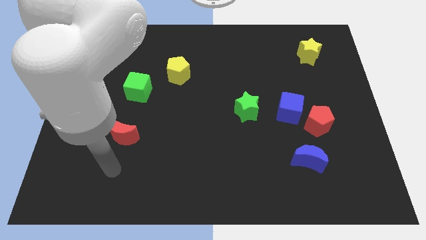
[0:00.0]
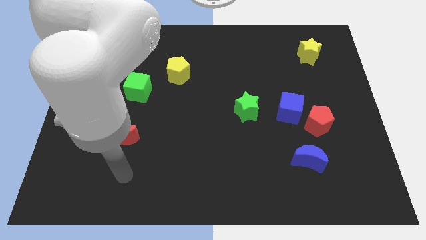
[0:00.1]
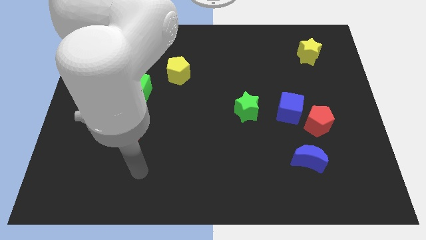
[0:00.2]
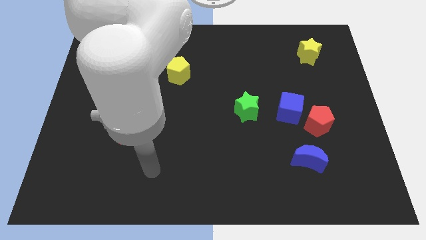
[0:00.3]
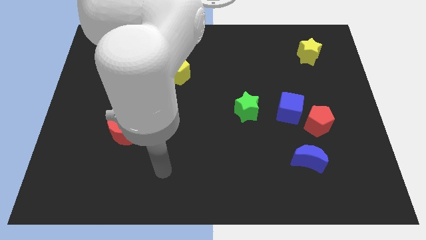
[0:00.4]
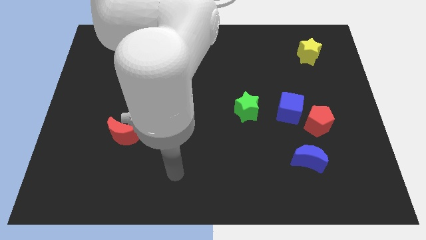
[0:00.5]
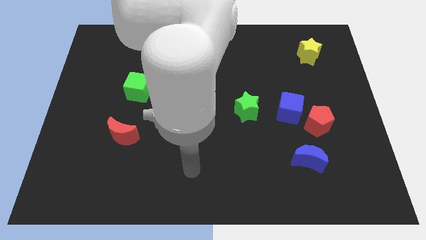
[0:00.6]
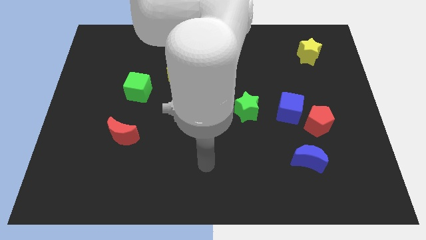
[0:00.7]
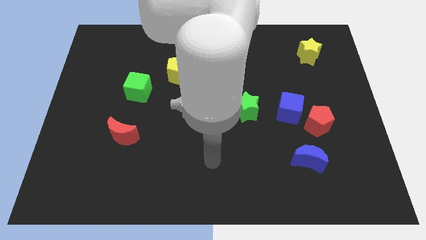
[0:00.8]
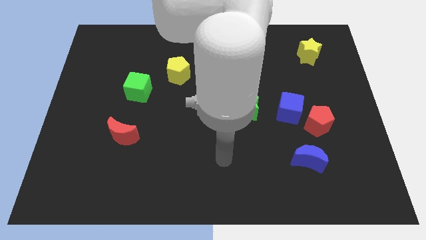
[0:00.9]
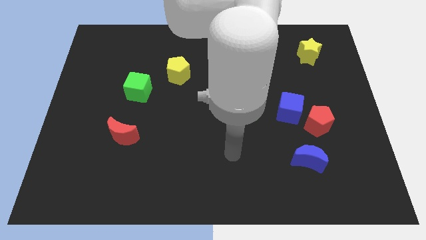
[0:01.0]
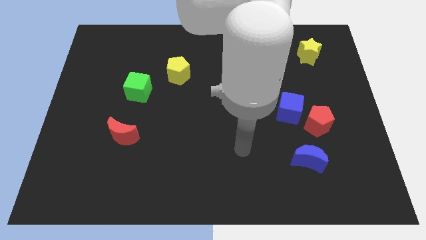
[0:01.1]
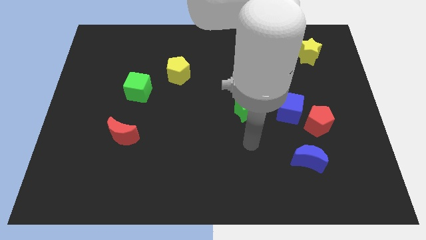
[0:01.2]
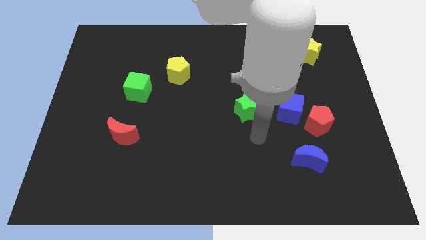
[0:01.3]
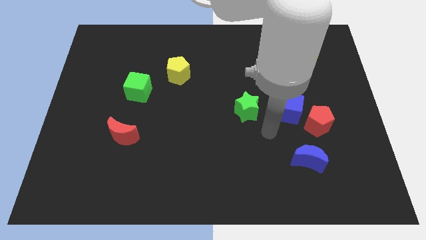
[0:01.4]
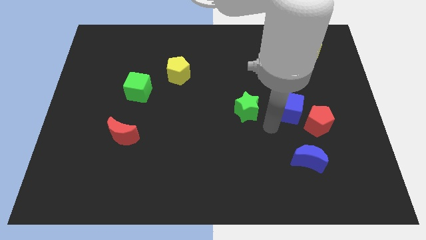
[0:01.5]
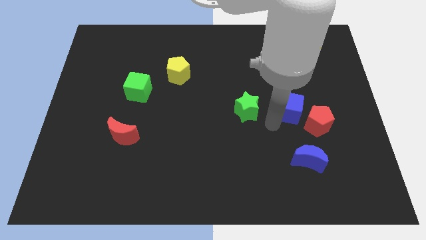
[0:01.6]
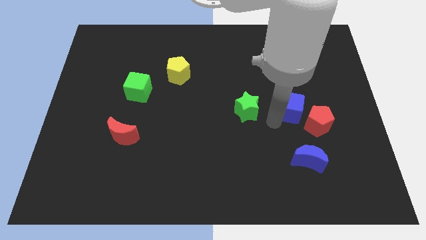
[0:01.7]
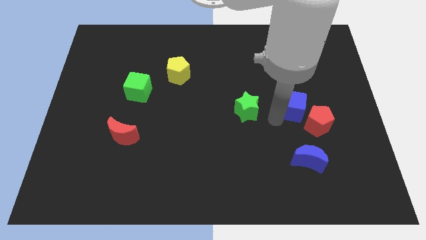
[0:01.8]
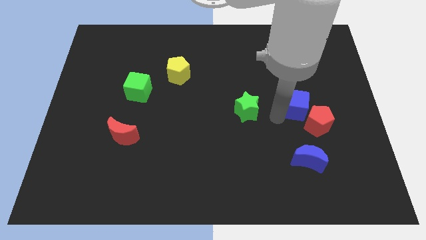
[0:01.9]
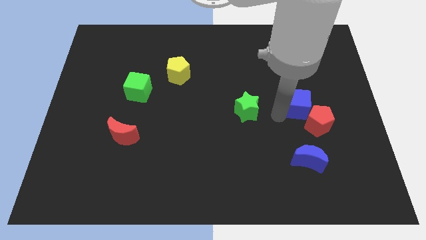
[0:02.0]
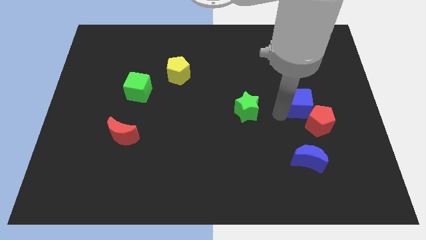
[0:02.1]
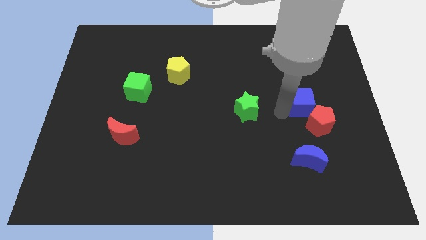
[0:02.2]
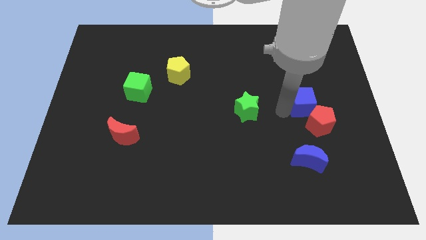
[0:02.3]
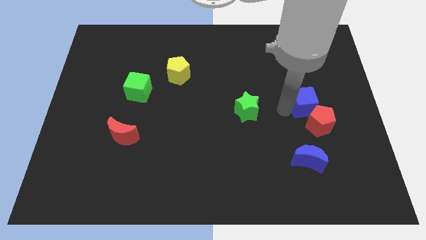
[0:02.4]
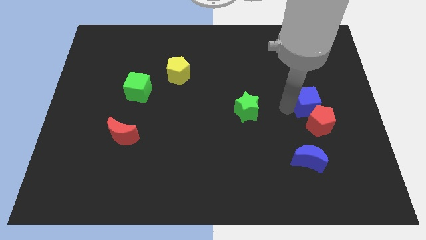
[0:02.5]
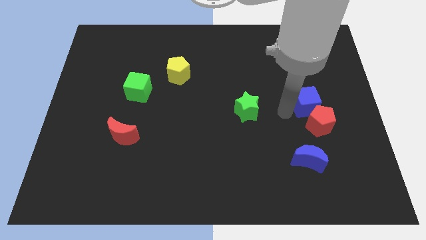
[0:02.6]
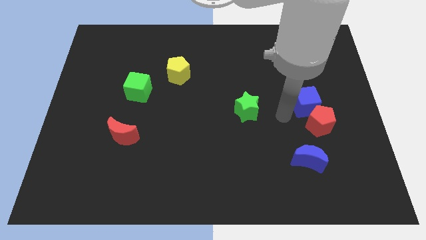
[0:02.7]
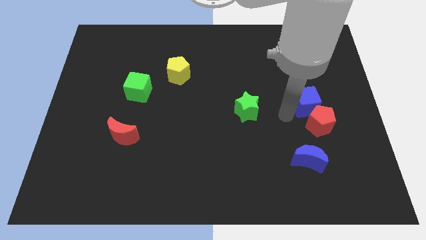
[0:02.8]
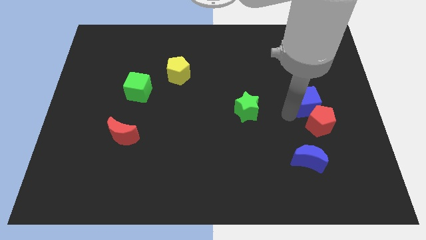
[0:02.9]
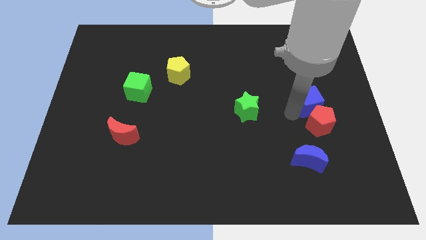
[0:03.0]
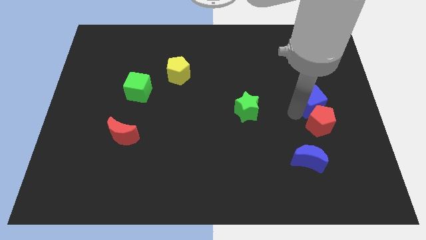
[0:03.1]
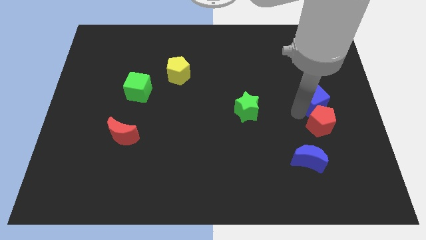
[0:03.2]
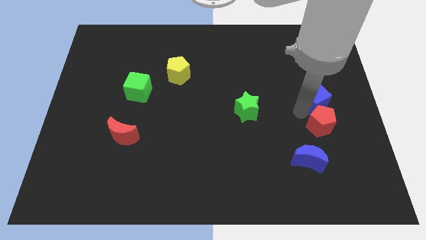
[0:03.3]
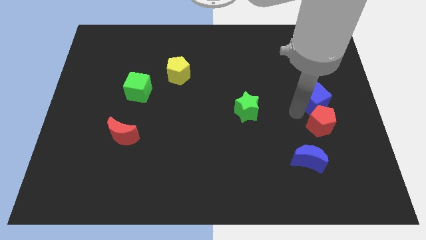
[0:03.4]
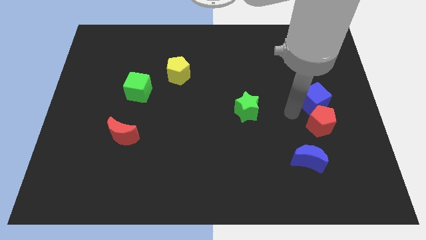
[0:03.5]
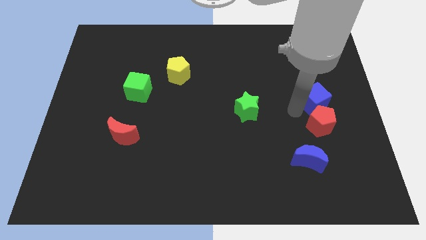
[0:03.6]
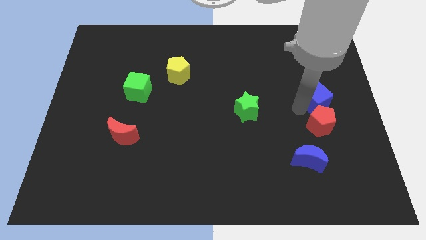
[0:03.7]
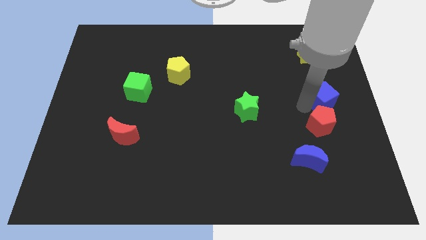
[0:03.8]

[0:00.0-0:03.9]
move the blue cube away from the red pentagon and green star

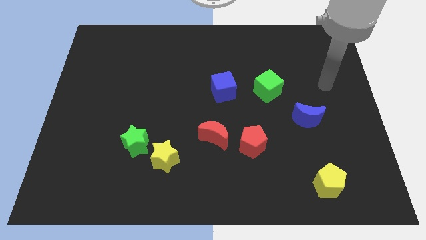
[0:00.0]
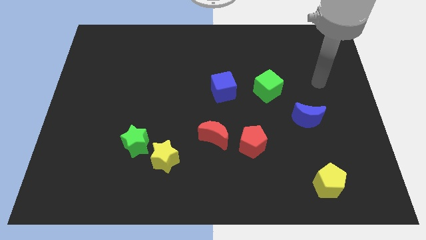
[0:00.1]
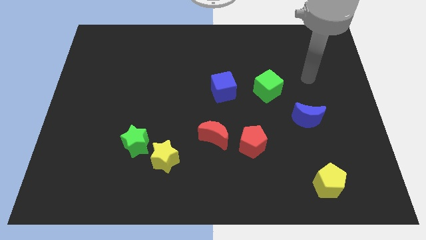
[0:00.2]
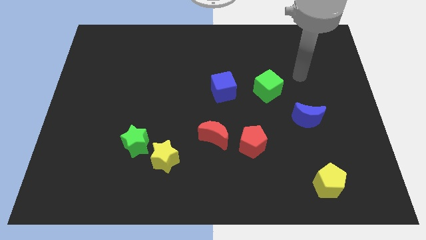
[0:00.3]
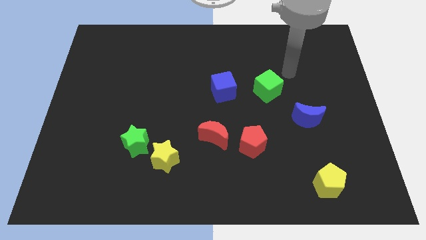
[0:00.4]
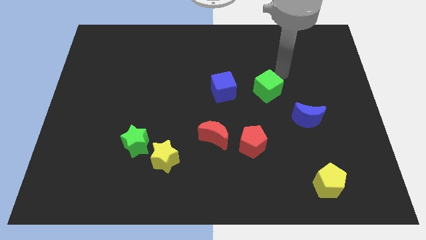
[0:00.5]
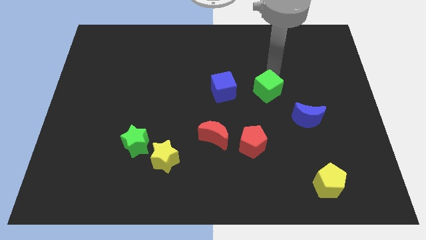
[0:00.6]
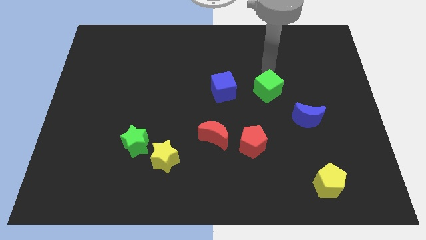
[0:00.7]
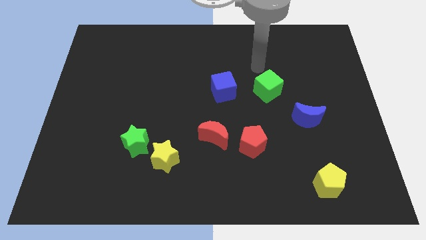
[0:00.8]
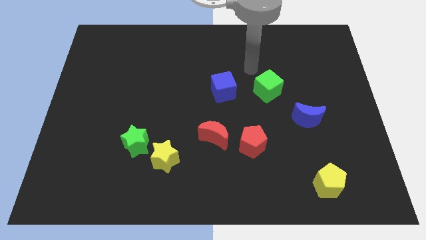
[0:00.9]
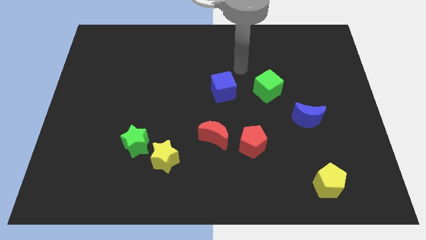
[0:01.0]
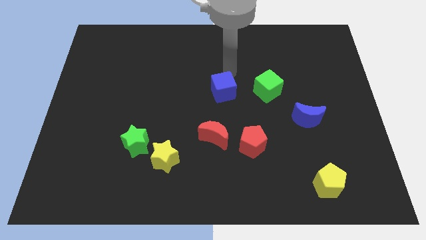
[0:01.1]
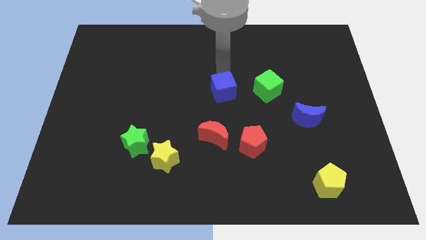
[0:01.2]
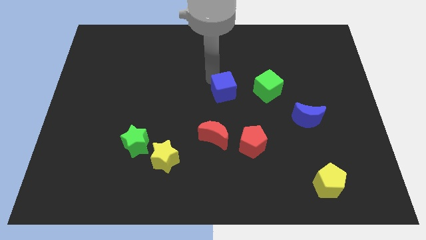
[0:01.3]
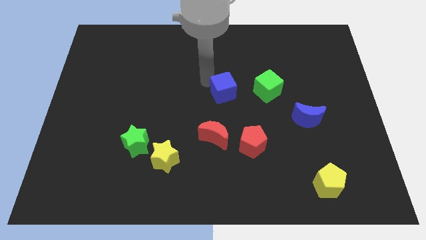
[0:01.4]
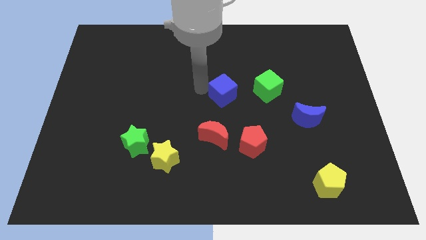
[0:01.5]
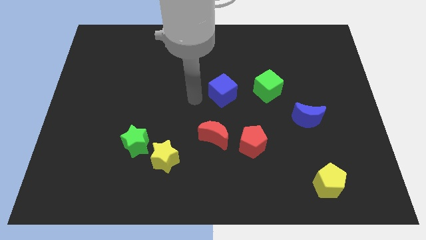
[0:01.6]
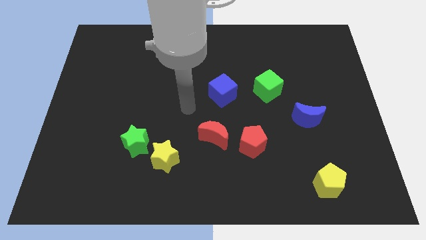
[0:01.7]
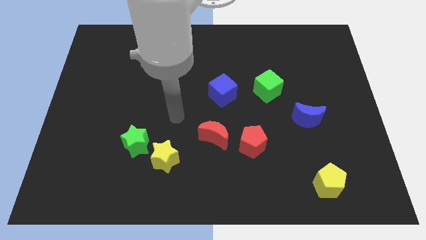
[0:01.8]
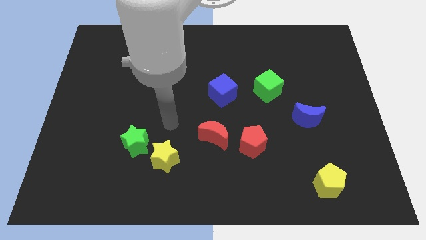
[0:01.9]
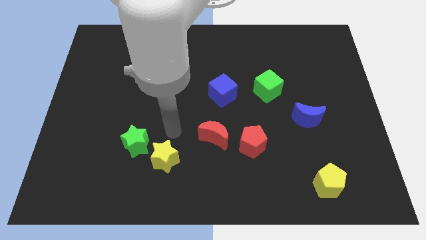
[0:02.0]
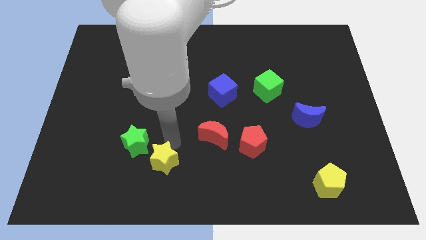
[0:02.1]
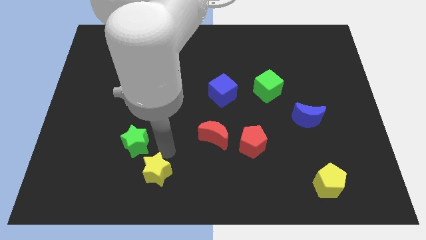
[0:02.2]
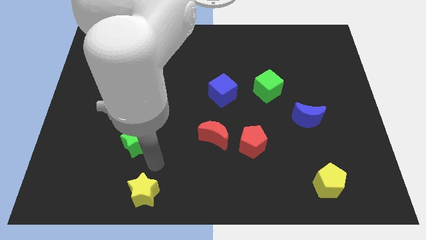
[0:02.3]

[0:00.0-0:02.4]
separate the green star from the yellow star

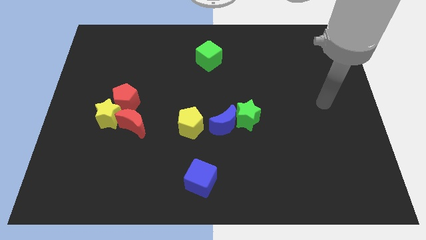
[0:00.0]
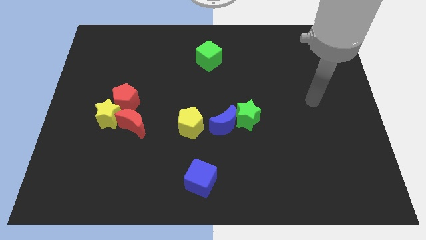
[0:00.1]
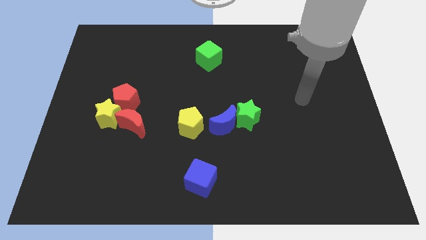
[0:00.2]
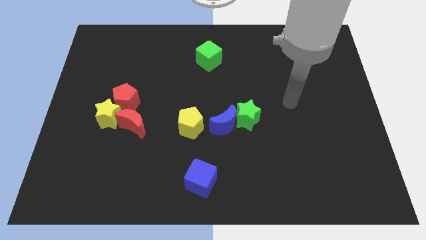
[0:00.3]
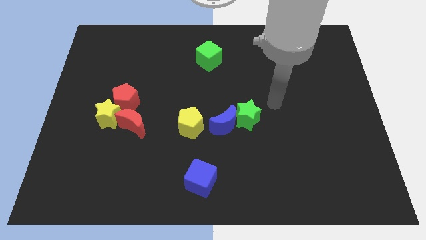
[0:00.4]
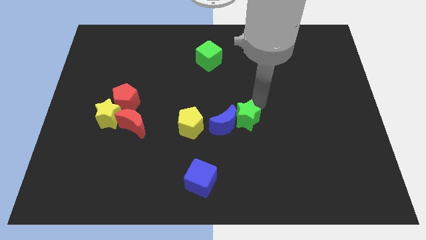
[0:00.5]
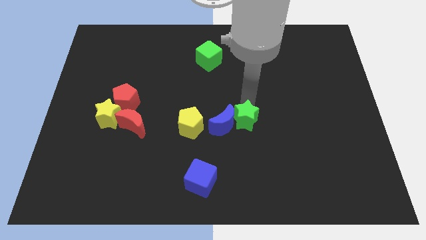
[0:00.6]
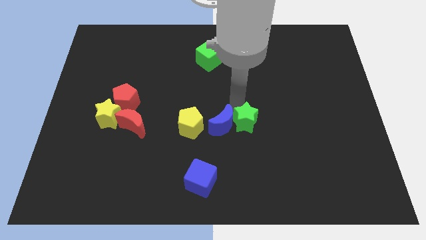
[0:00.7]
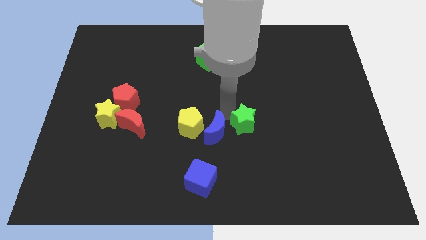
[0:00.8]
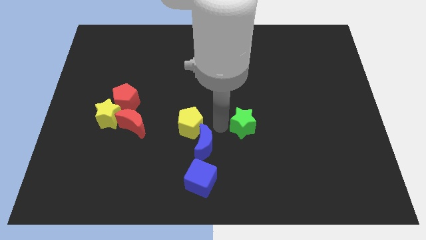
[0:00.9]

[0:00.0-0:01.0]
move the green star away from the blue moon

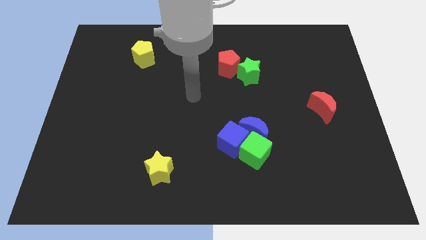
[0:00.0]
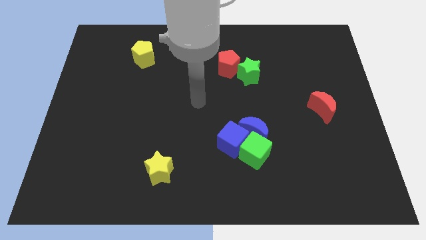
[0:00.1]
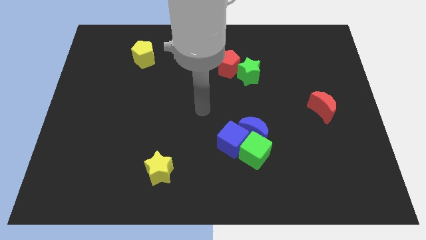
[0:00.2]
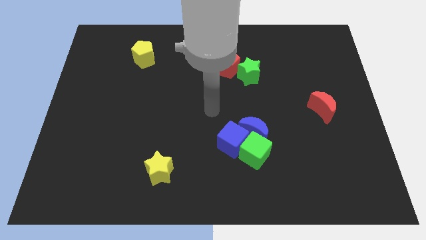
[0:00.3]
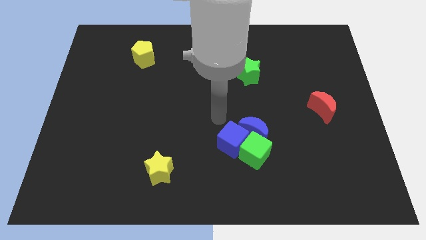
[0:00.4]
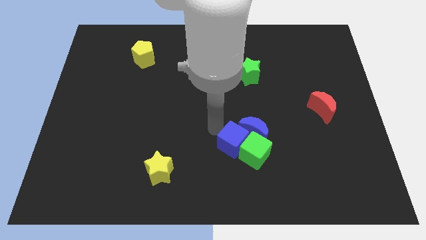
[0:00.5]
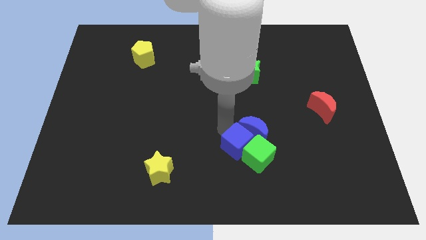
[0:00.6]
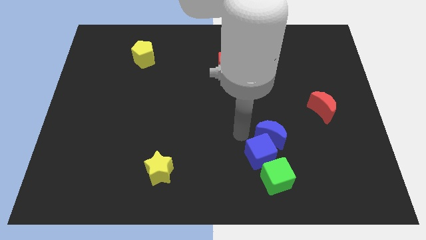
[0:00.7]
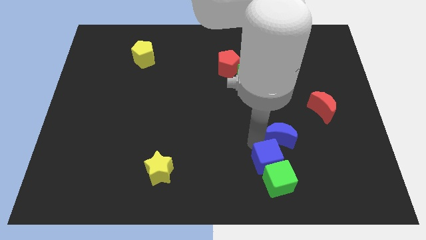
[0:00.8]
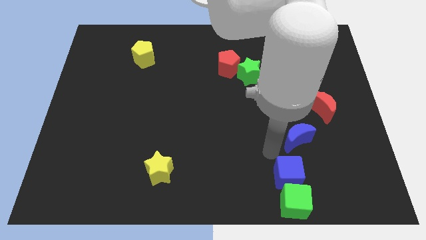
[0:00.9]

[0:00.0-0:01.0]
separate the green cube from the blue moon and blue cube

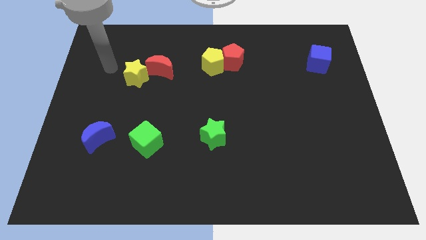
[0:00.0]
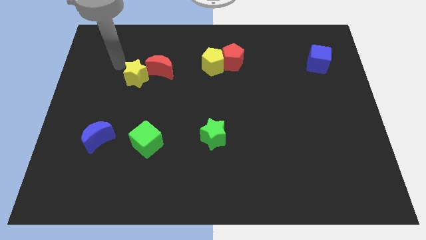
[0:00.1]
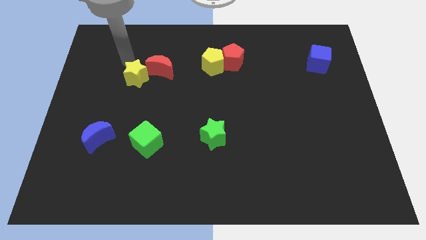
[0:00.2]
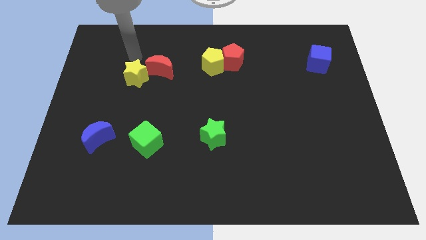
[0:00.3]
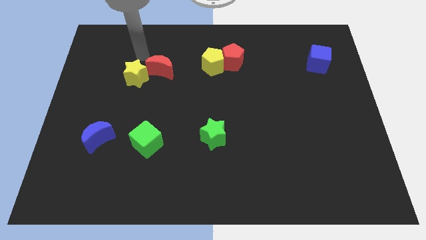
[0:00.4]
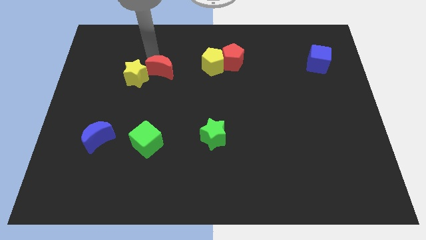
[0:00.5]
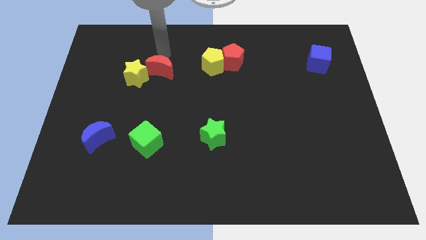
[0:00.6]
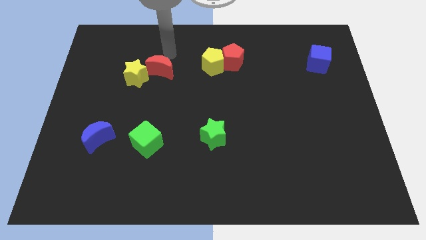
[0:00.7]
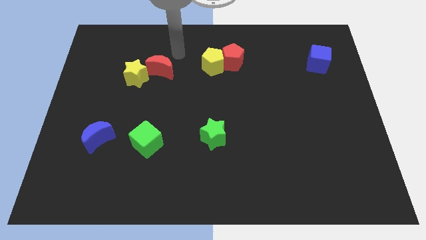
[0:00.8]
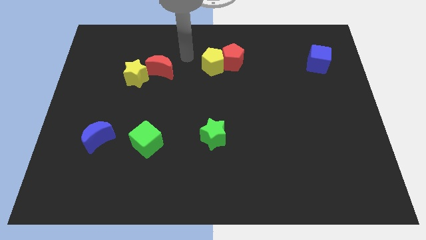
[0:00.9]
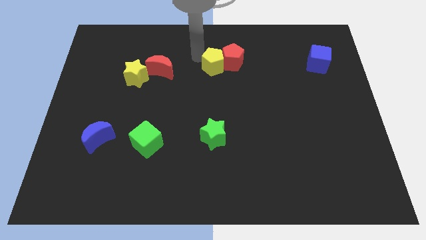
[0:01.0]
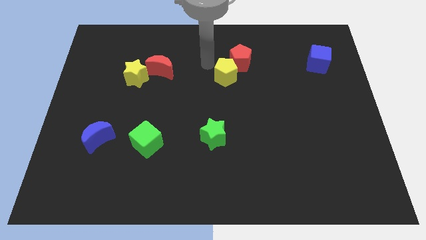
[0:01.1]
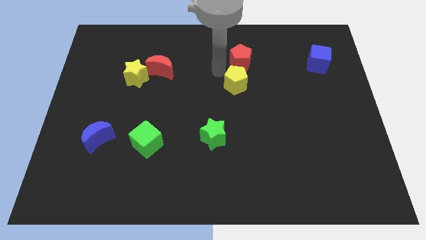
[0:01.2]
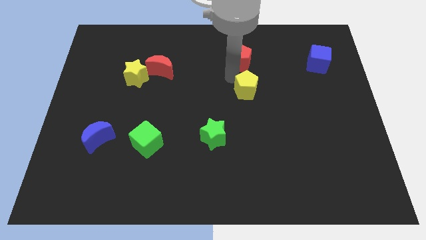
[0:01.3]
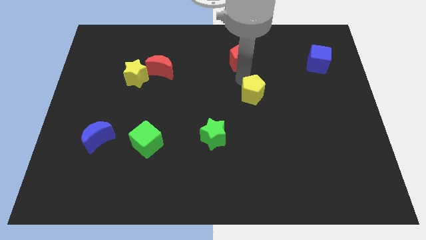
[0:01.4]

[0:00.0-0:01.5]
separate the red pentagon from the yellow pentagon
